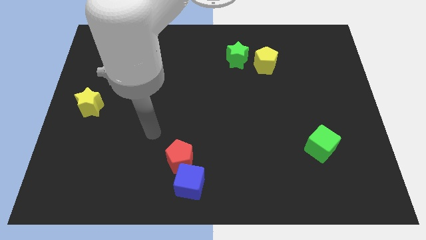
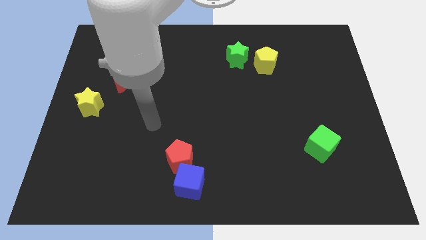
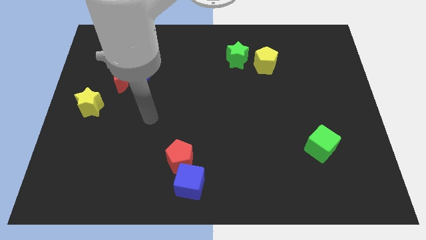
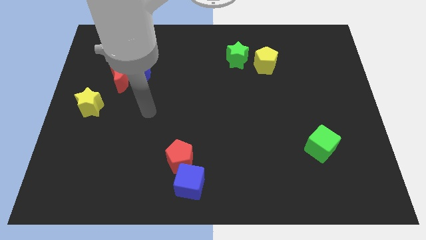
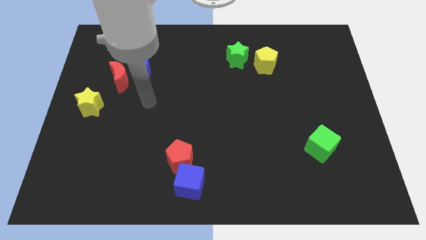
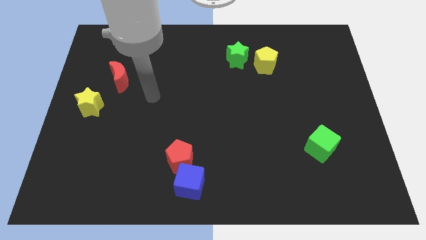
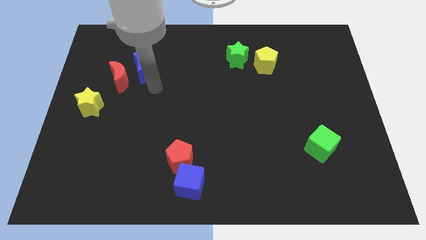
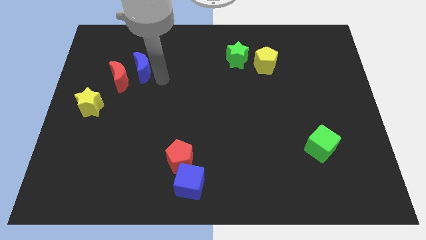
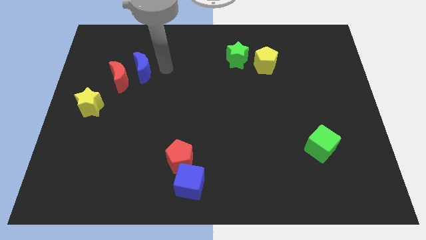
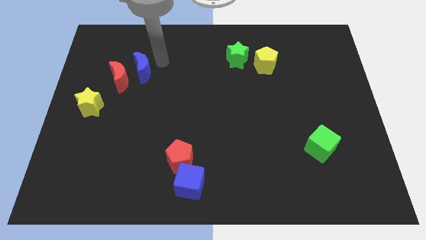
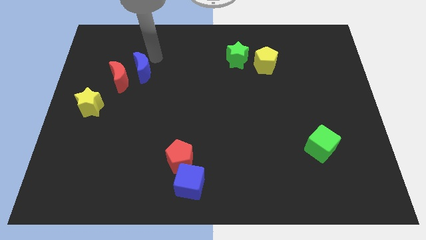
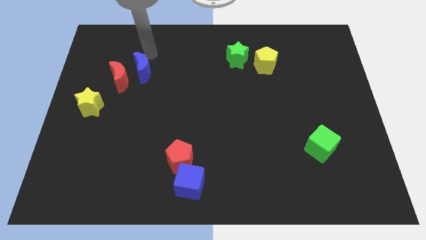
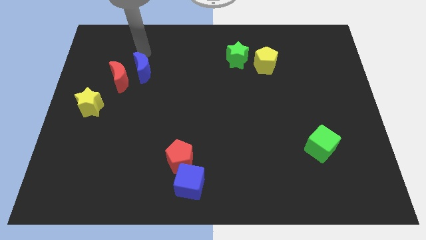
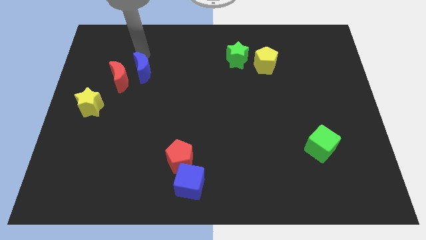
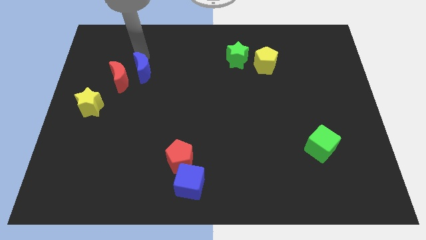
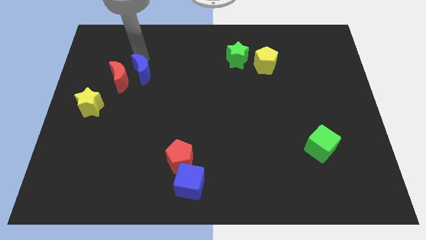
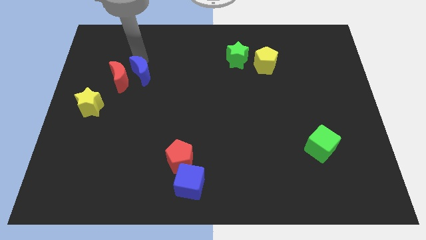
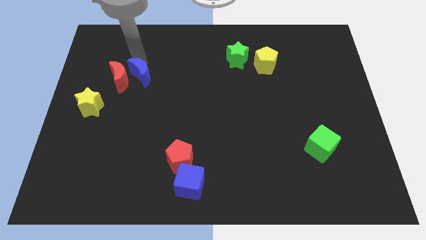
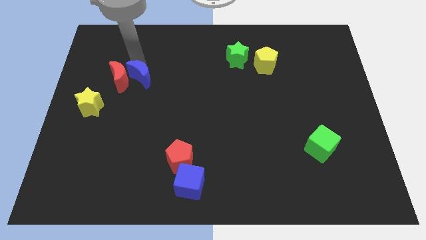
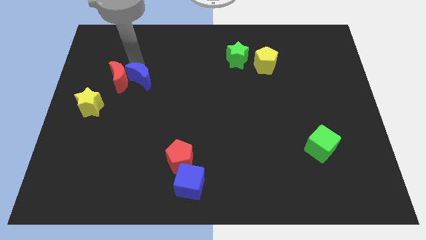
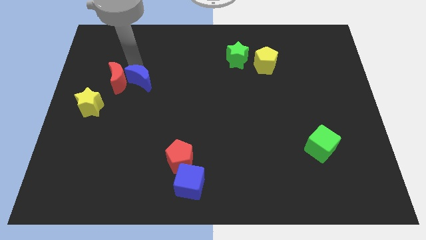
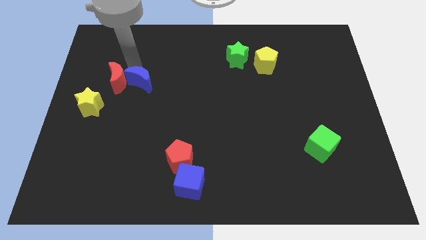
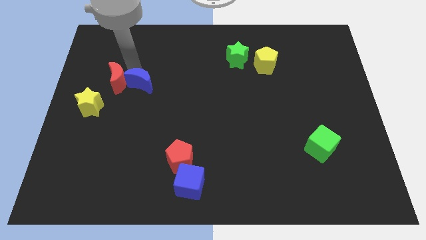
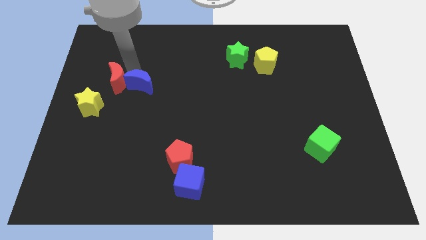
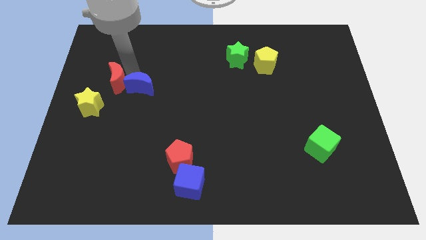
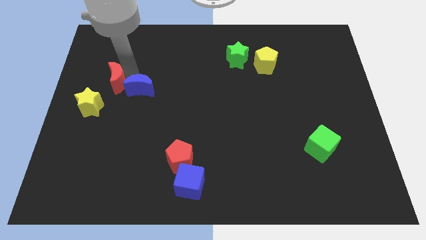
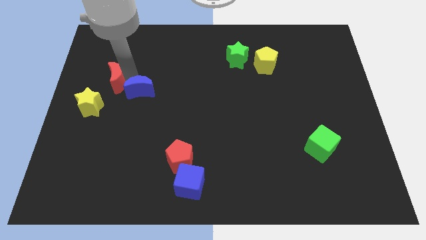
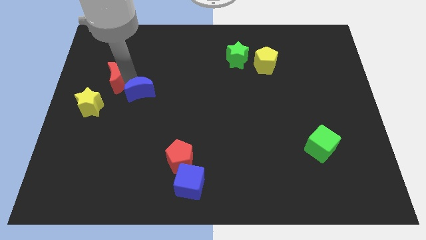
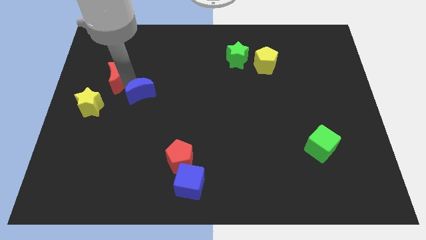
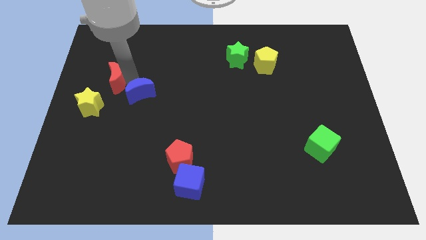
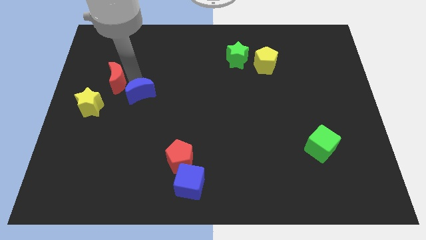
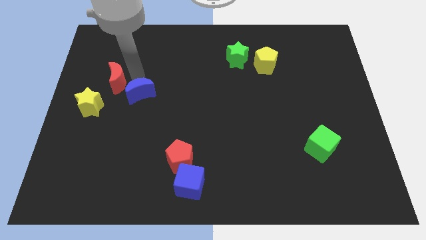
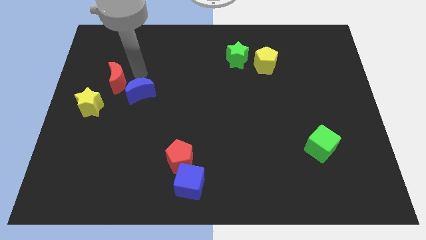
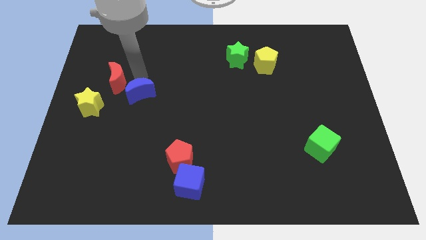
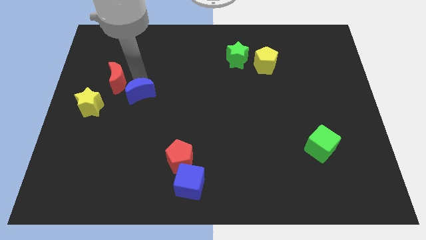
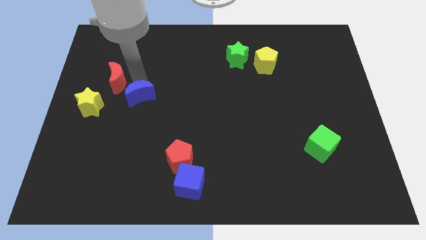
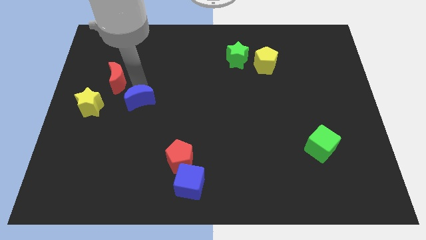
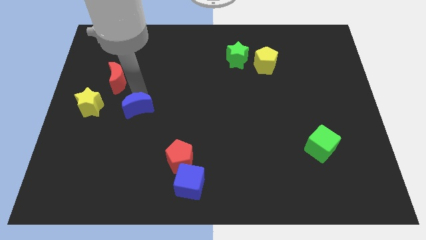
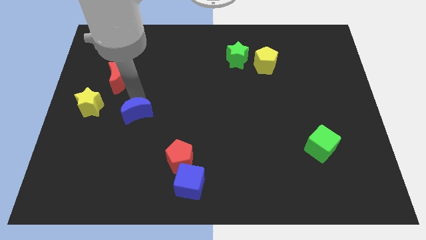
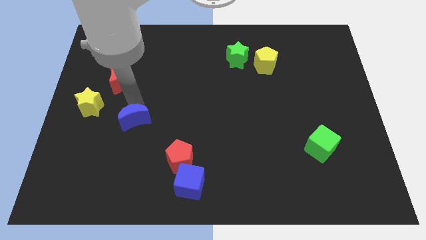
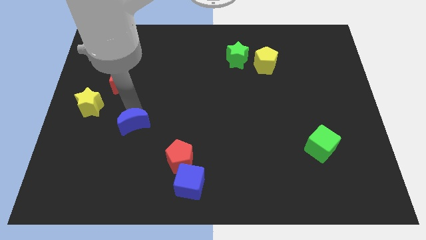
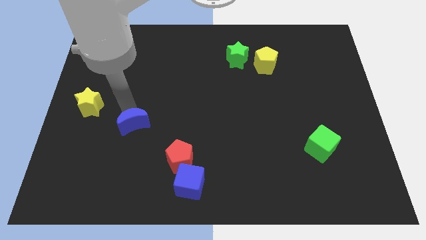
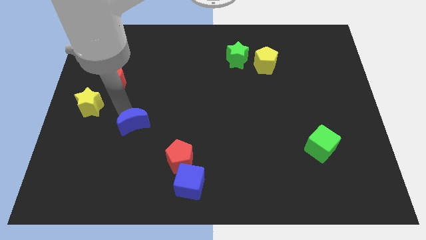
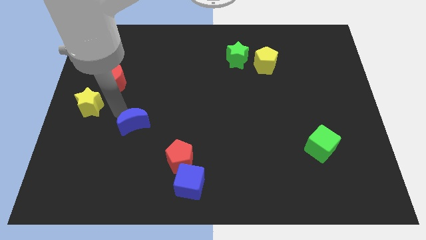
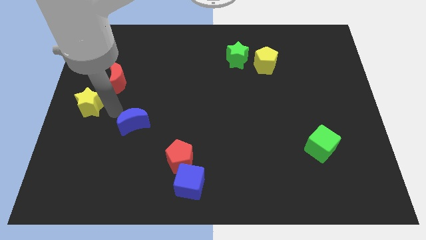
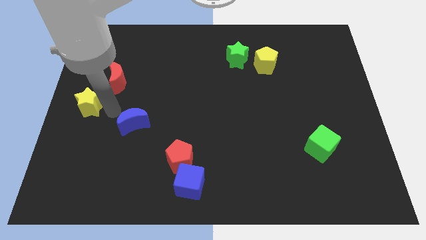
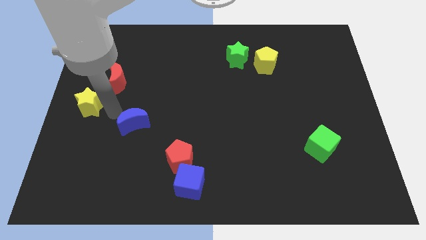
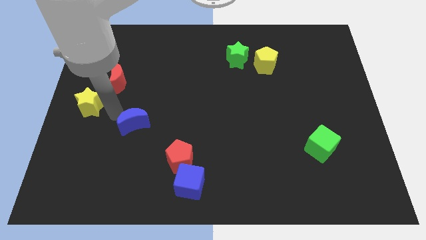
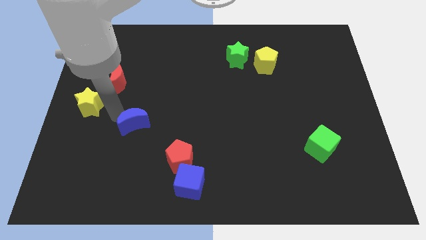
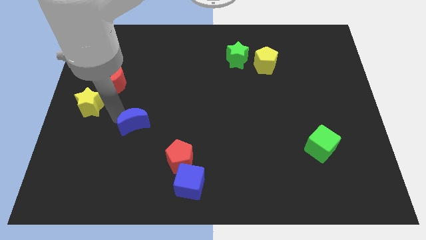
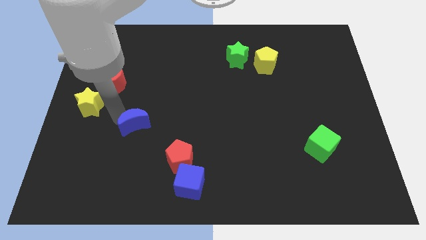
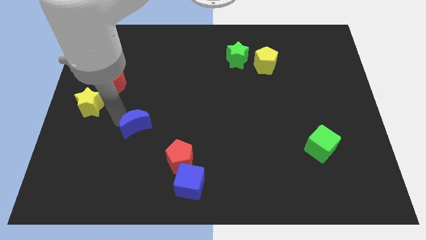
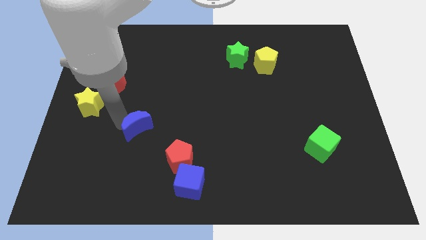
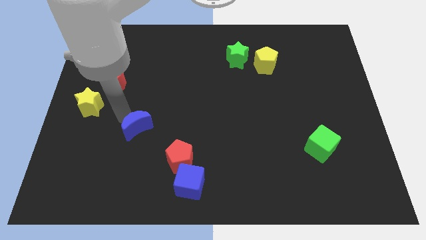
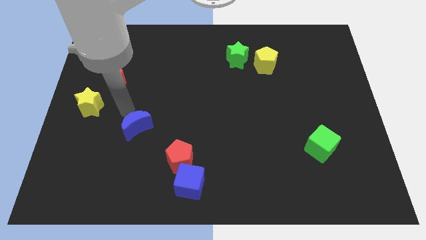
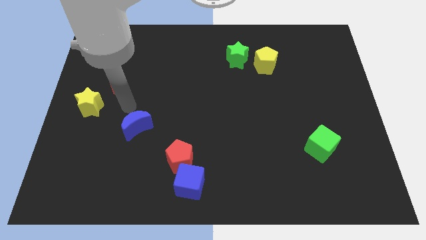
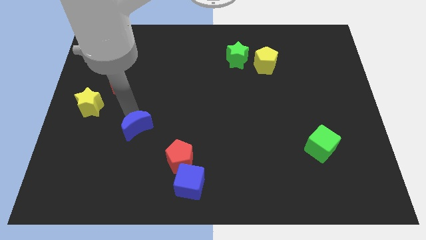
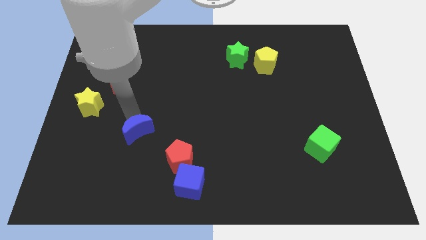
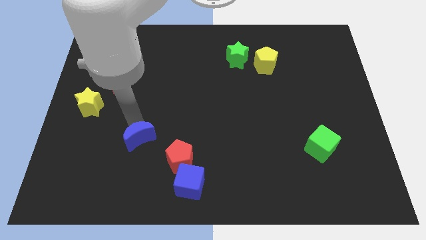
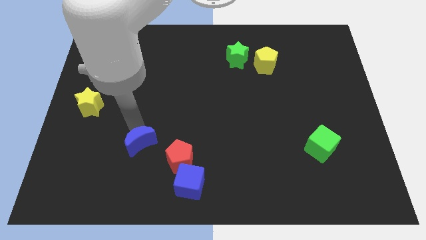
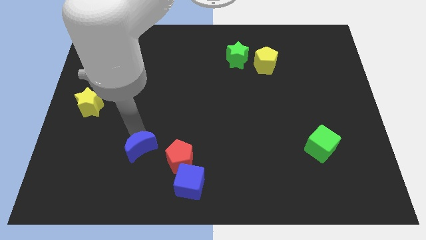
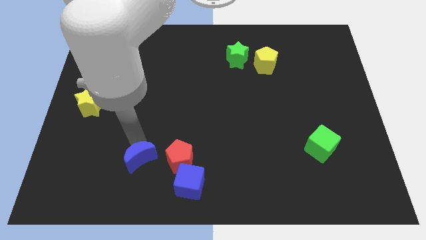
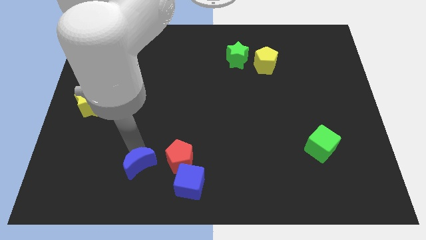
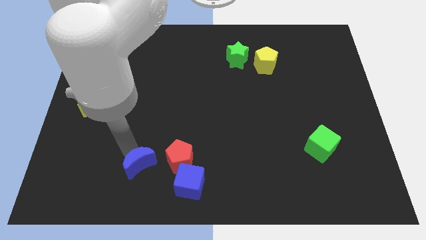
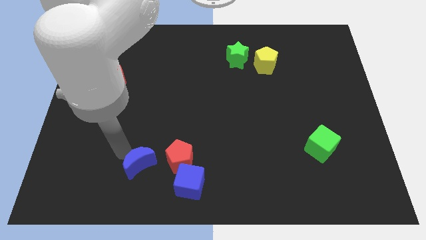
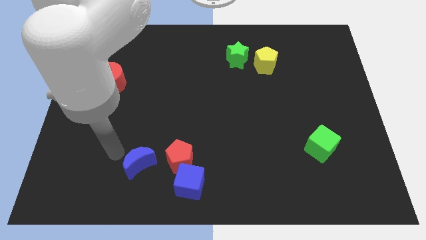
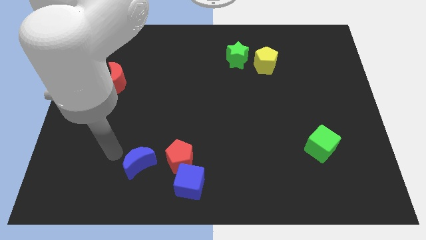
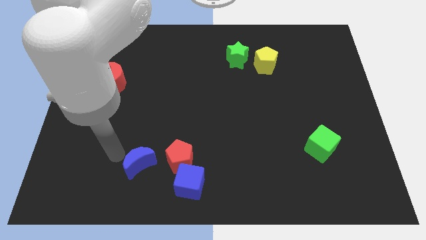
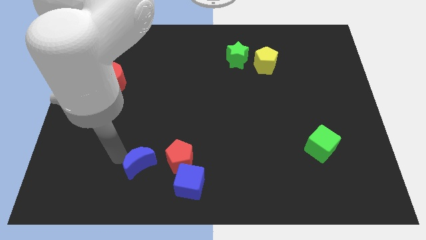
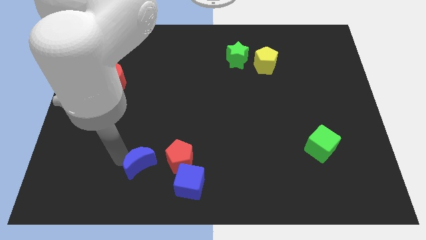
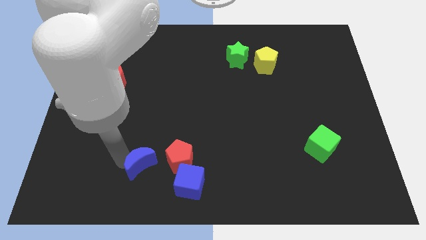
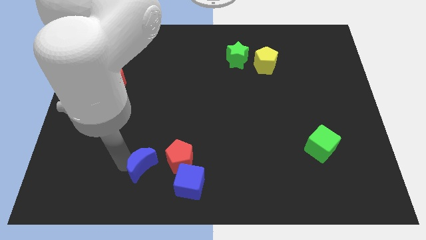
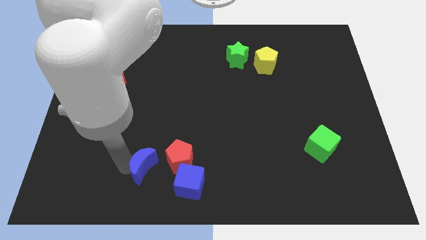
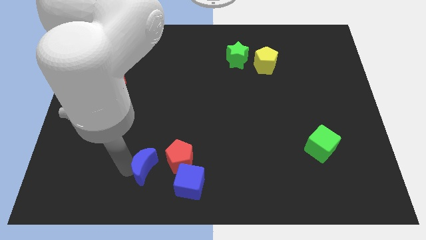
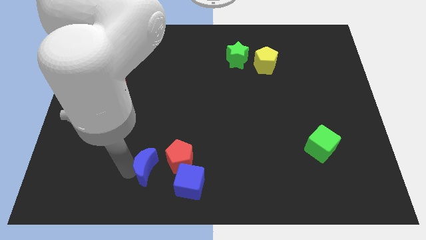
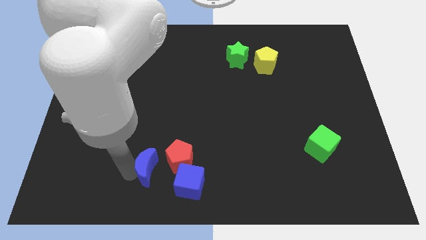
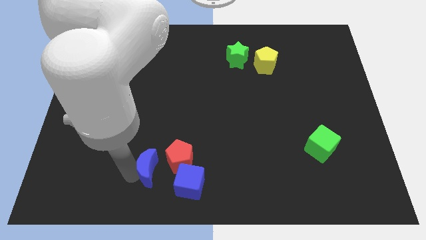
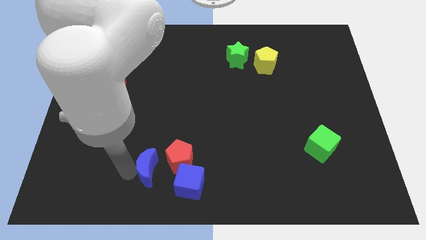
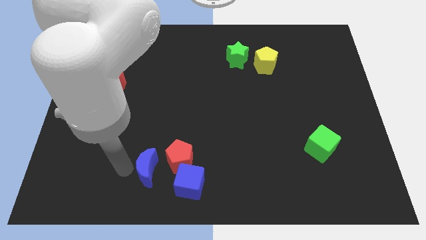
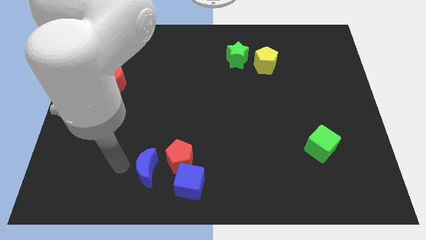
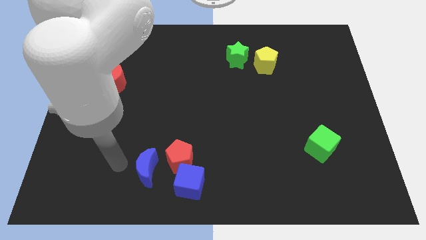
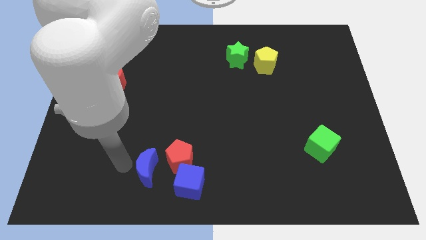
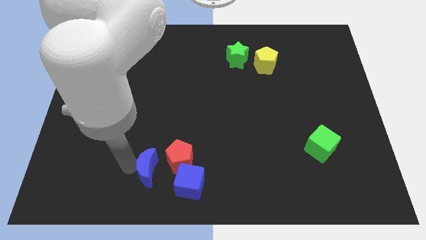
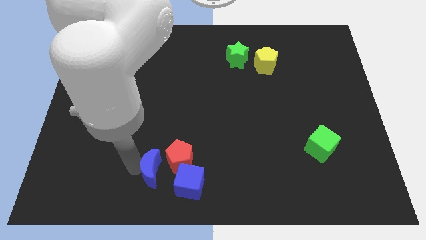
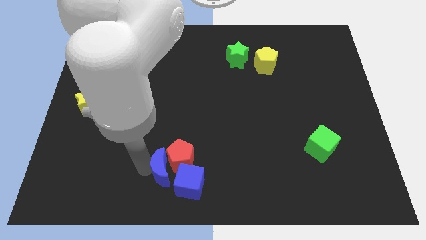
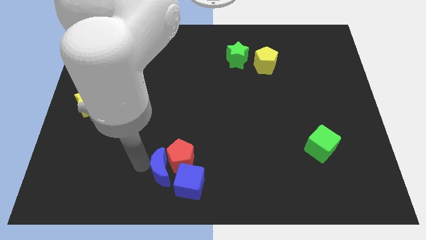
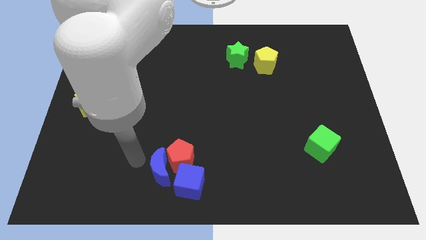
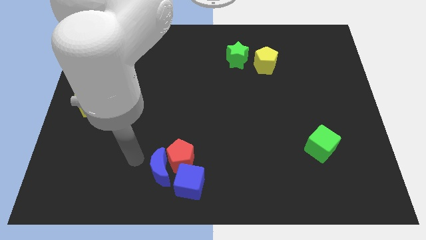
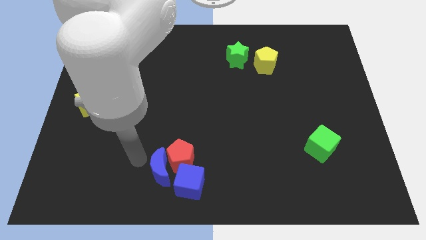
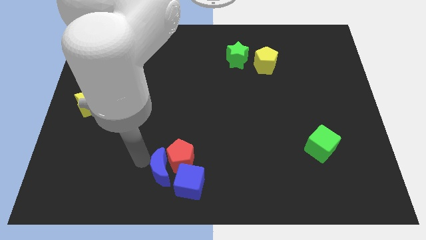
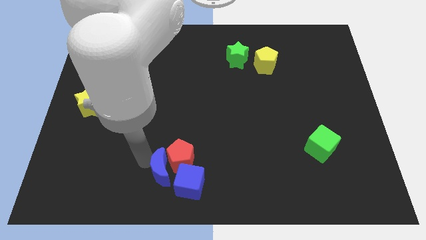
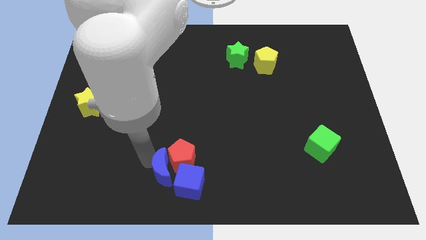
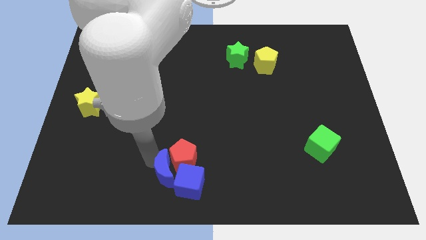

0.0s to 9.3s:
push the blue moon to the blue cube
